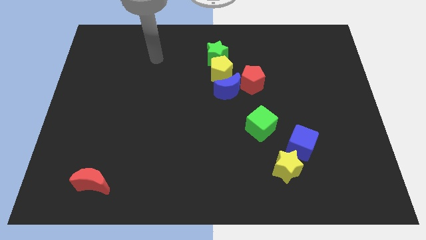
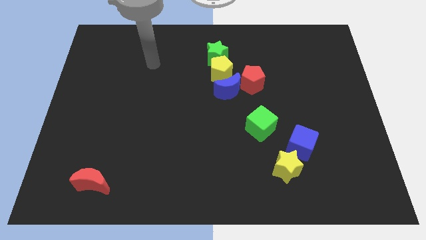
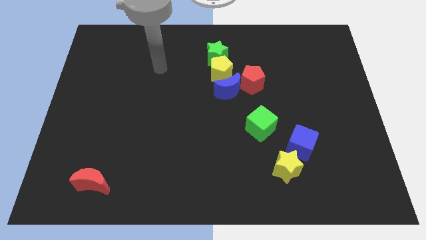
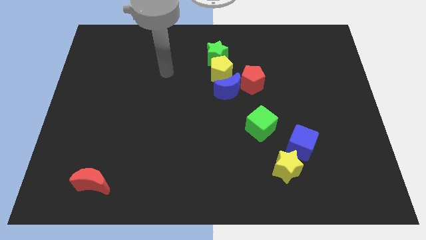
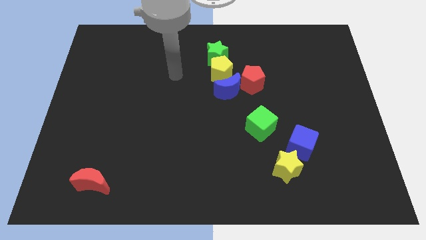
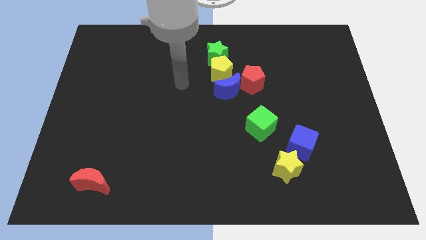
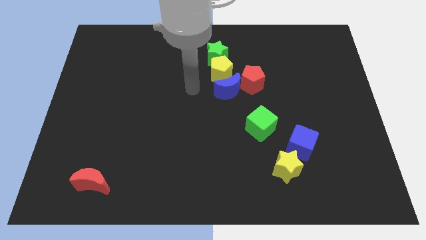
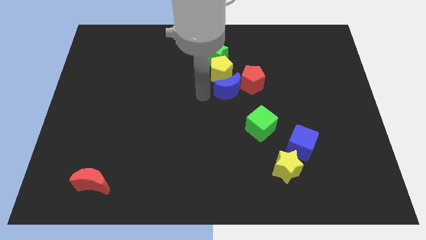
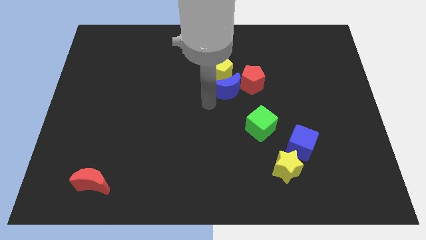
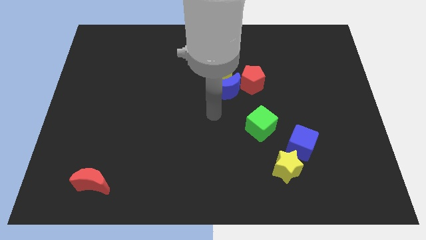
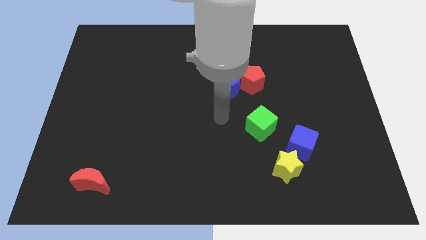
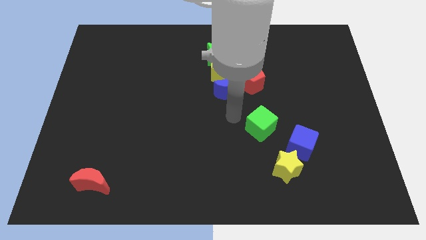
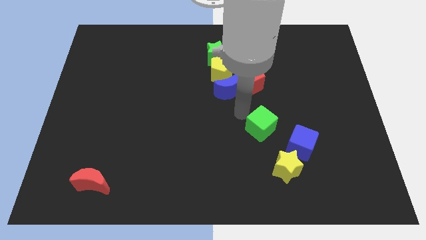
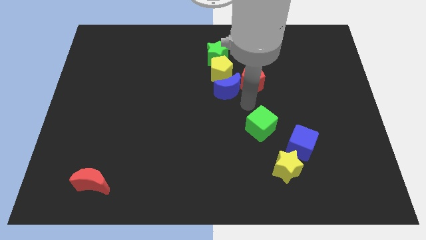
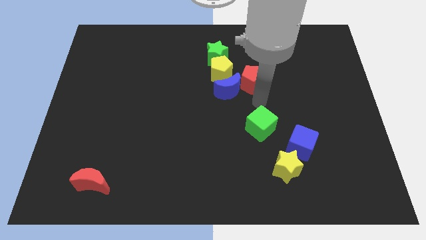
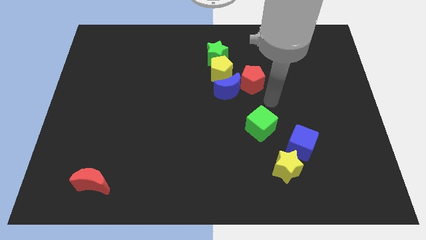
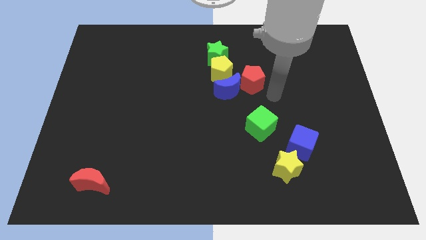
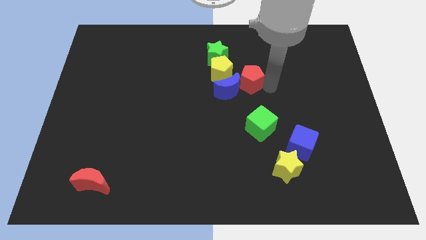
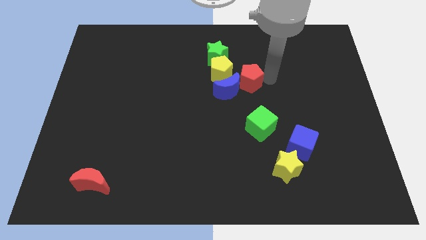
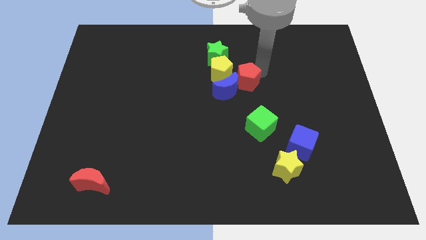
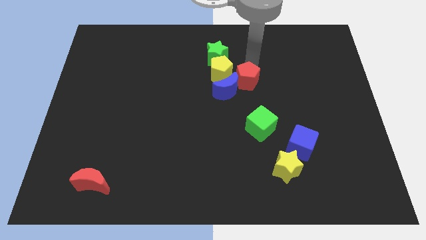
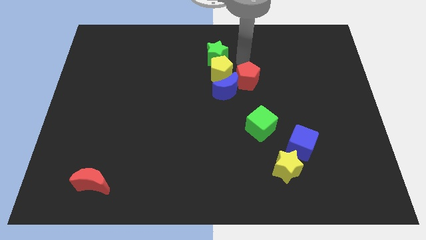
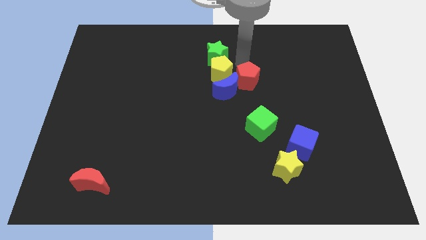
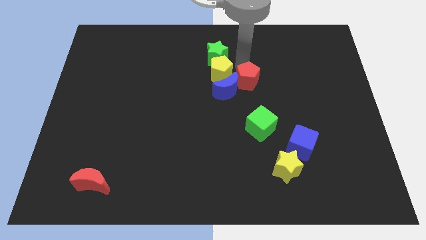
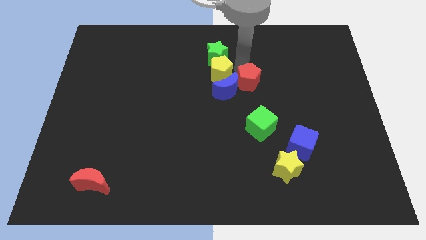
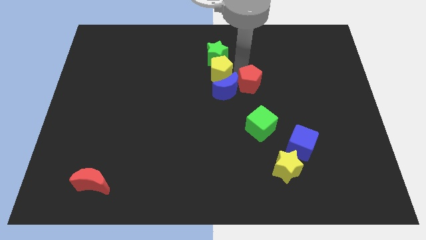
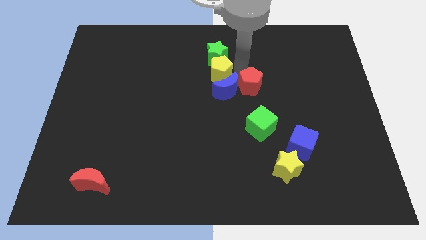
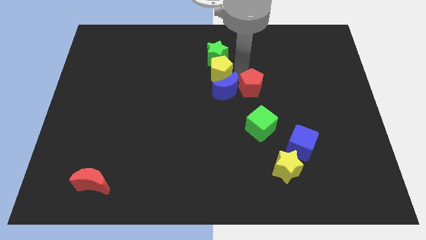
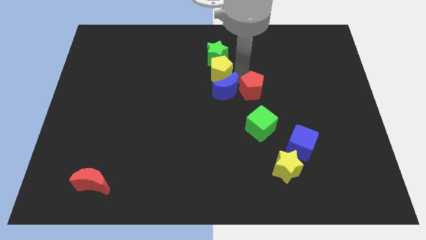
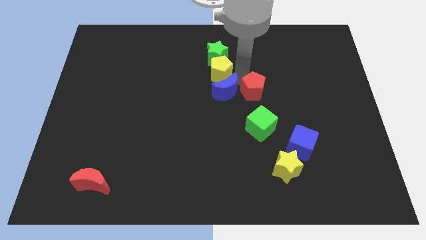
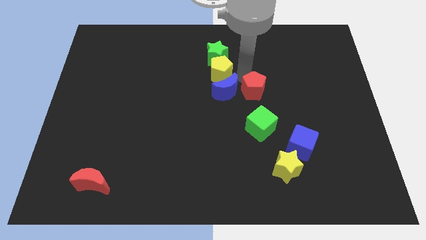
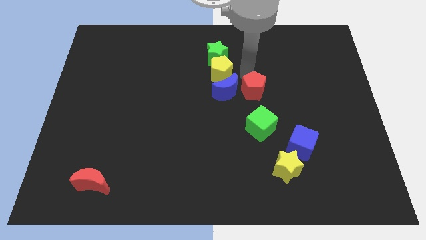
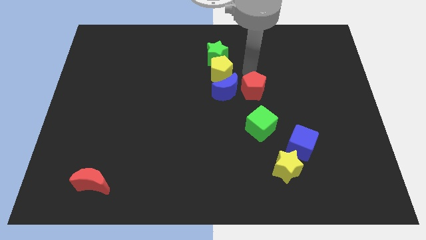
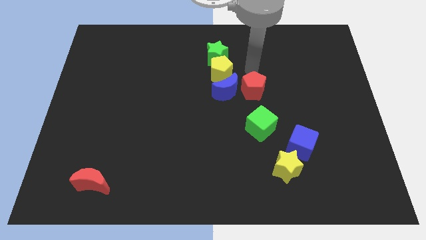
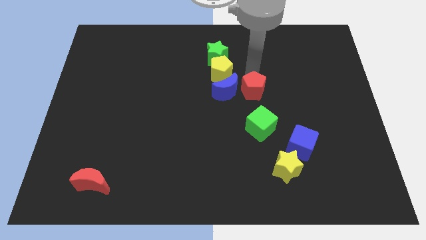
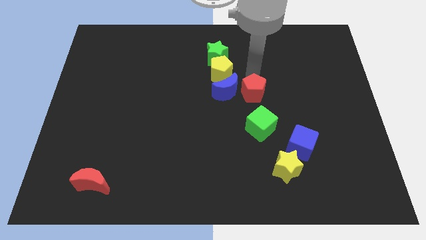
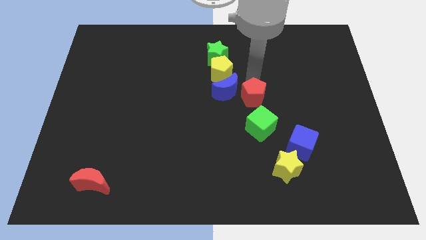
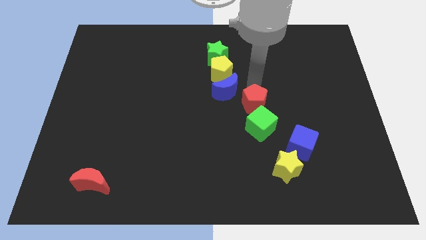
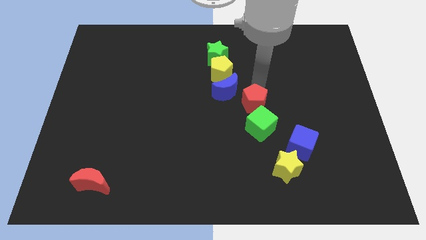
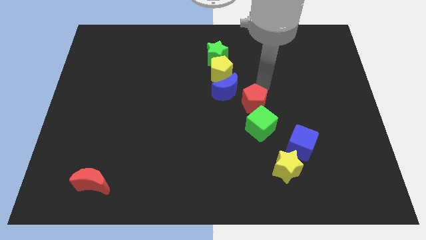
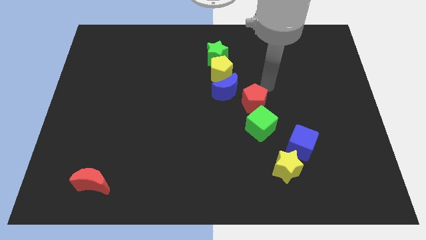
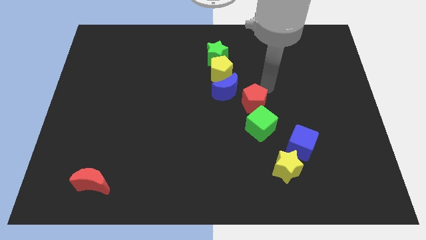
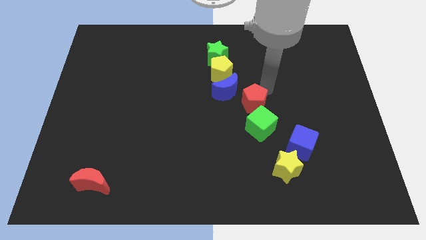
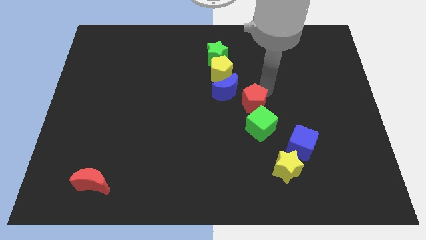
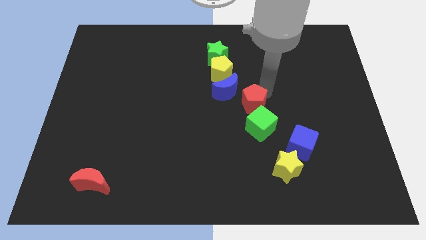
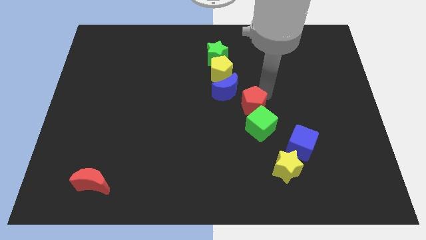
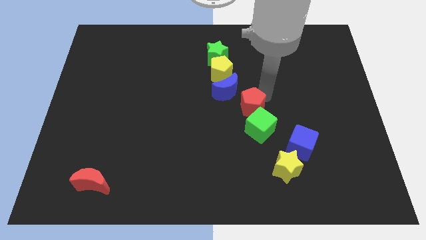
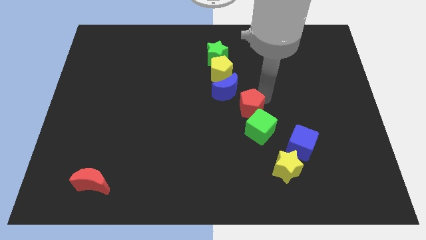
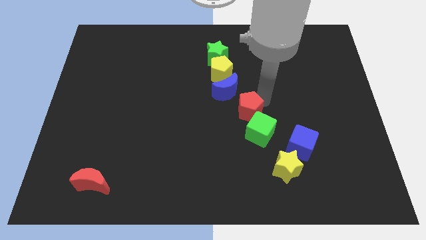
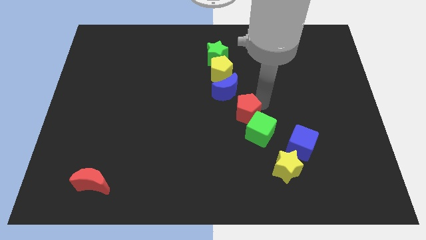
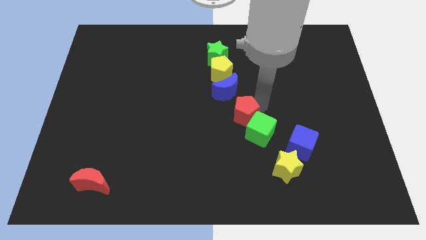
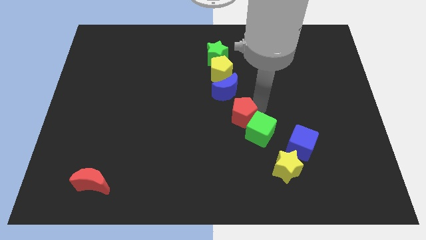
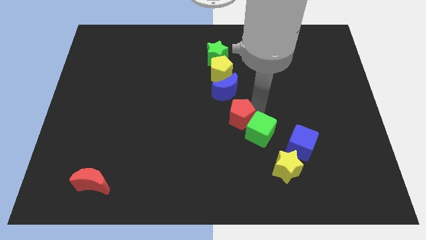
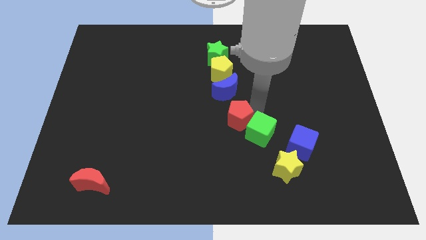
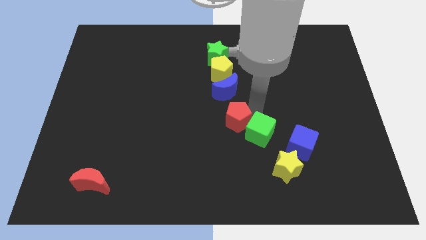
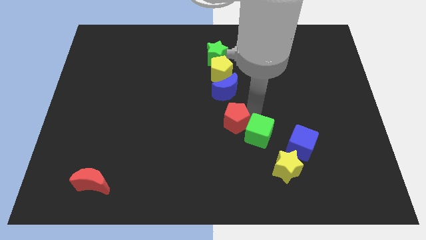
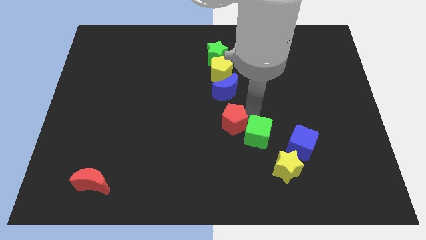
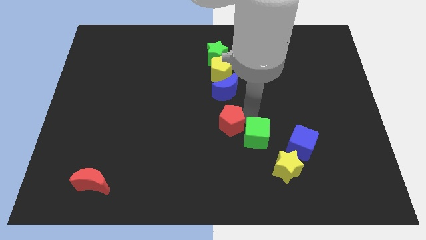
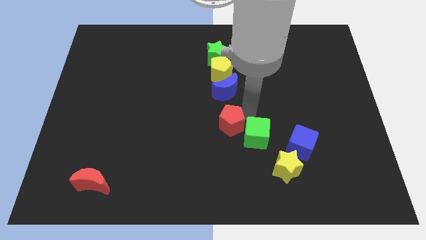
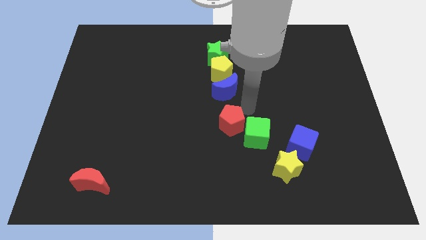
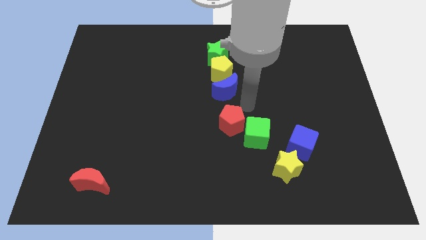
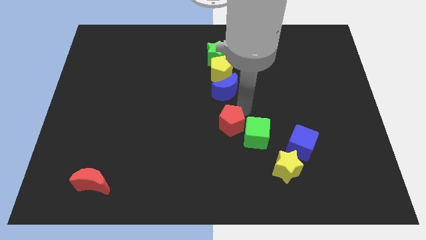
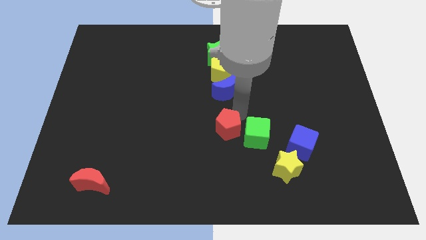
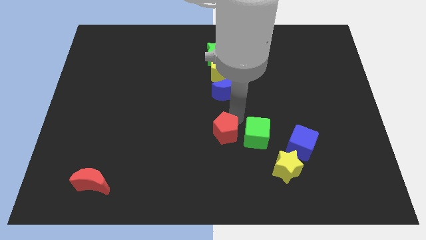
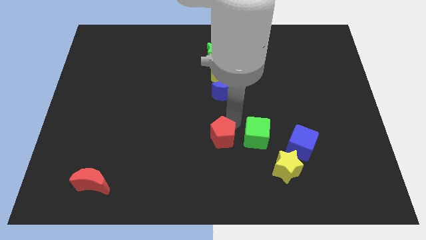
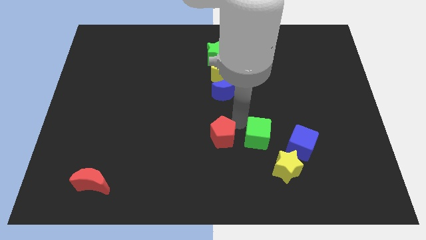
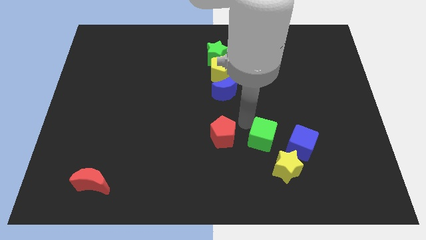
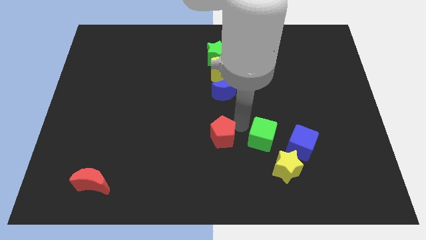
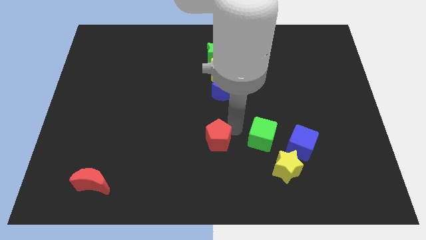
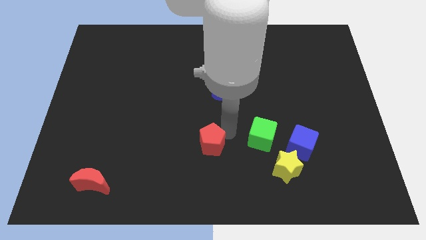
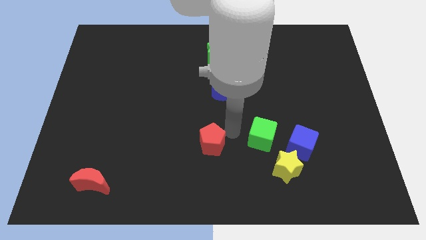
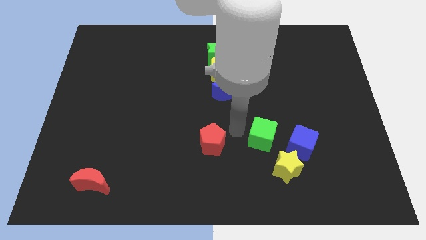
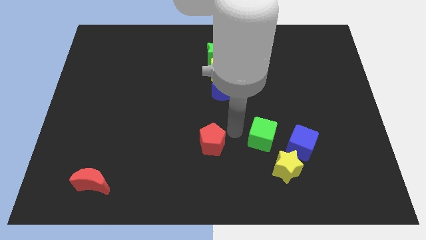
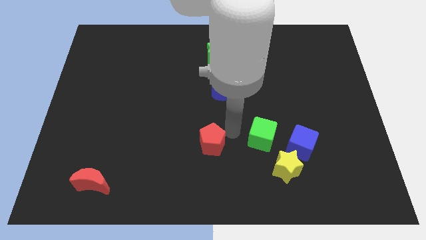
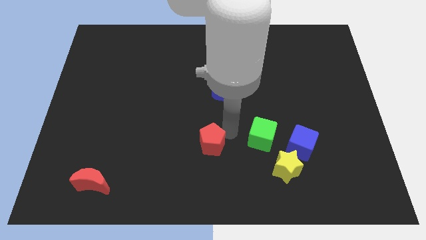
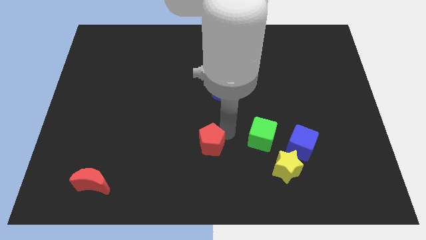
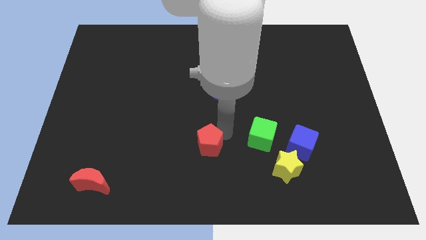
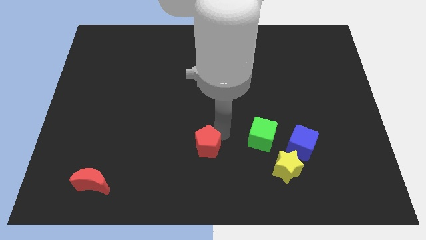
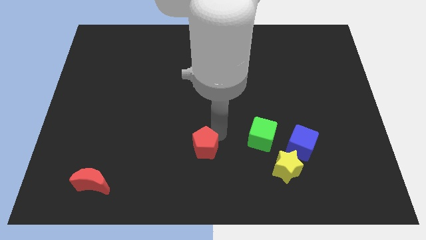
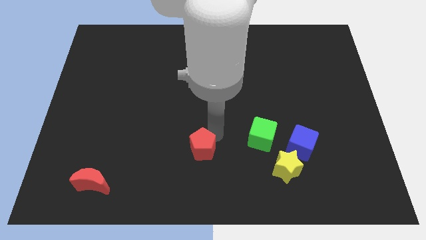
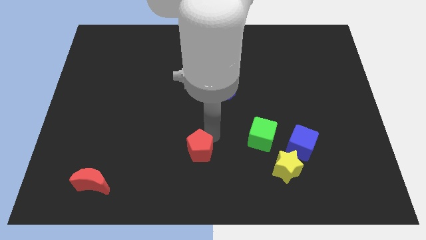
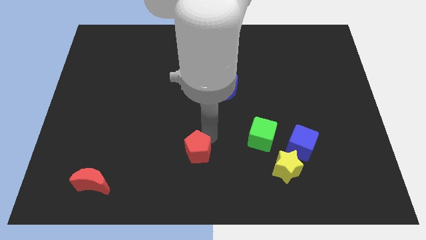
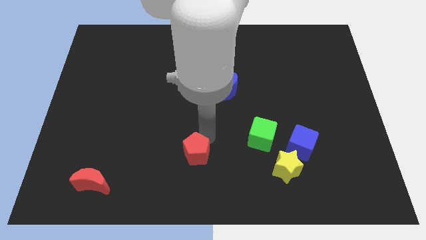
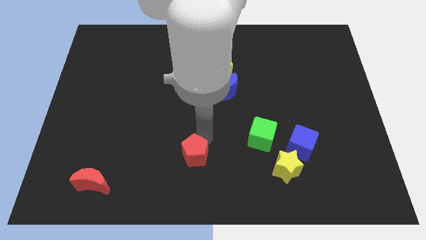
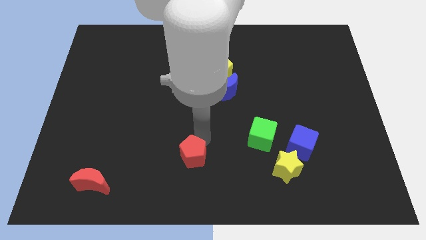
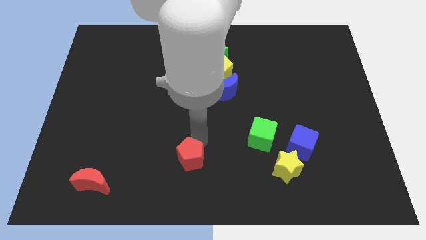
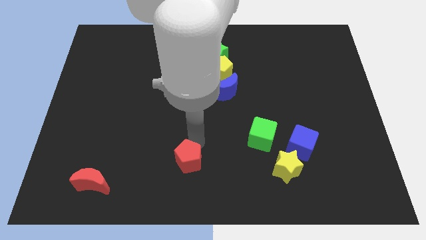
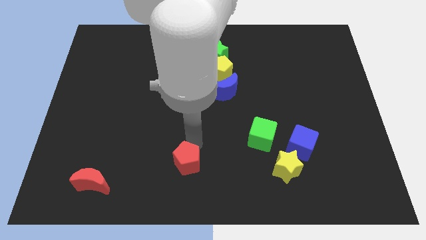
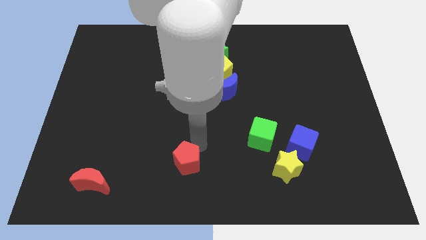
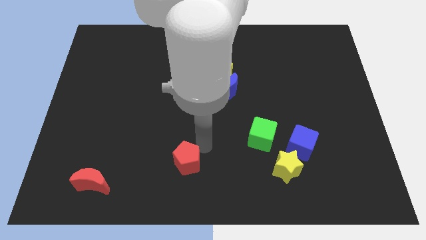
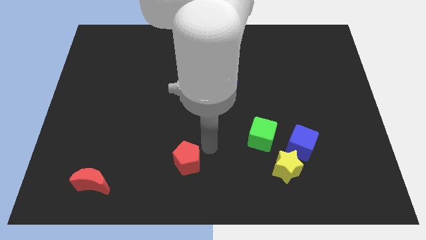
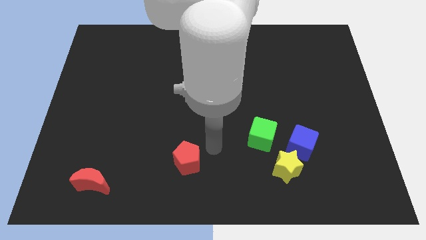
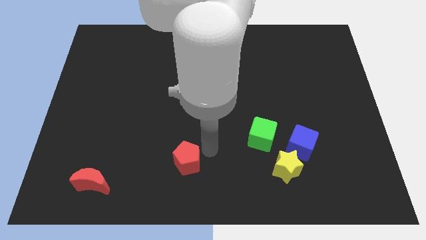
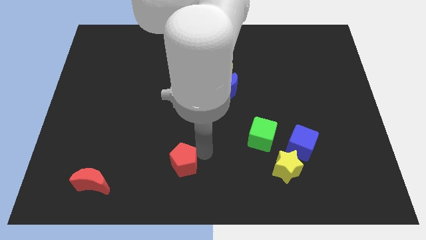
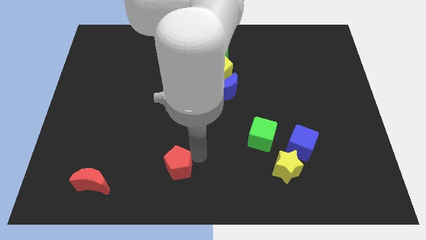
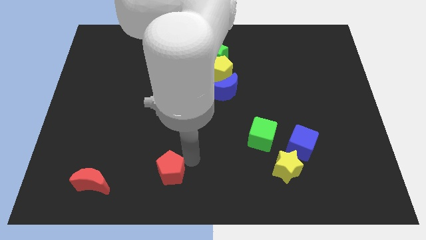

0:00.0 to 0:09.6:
move the red pentagon right of the red moon
